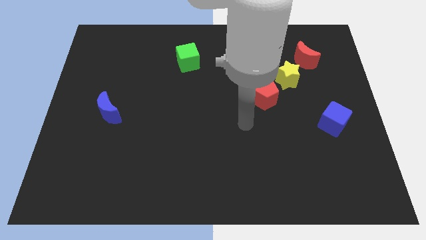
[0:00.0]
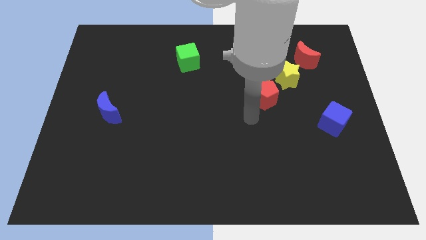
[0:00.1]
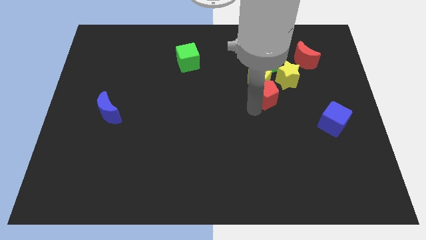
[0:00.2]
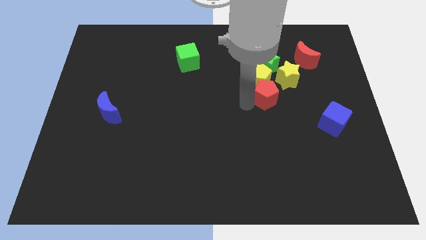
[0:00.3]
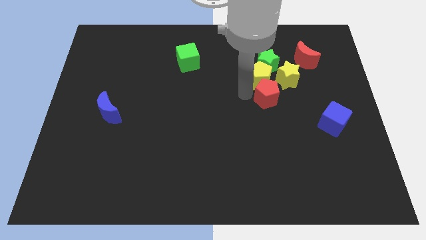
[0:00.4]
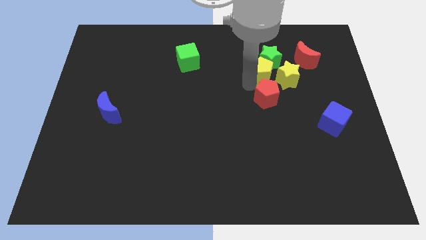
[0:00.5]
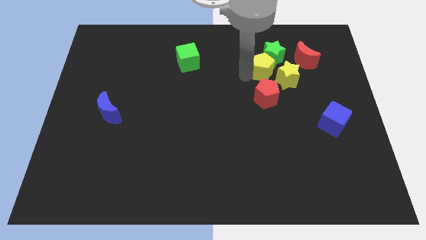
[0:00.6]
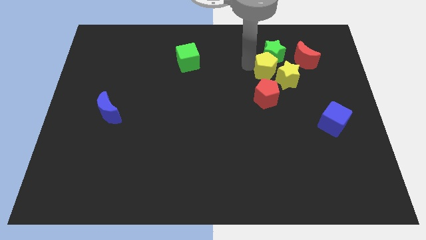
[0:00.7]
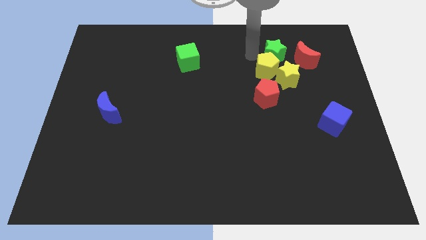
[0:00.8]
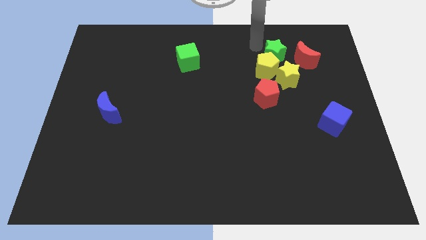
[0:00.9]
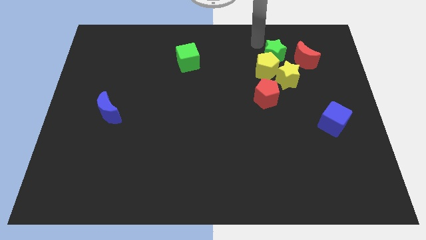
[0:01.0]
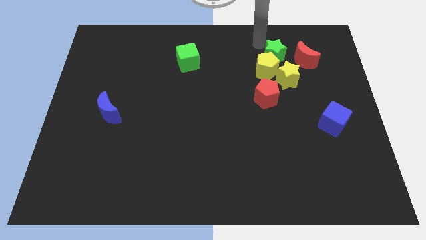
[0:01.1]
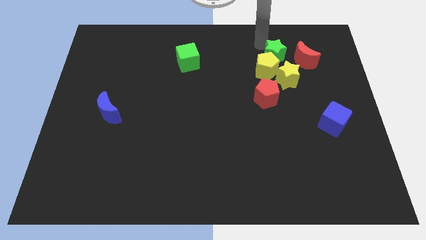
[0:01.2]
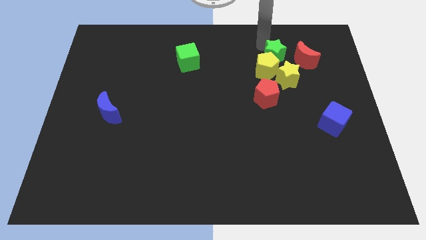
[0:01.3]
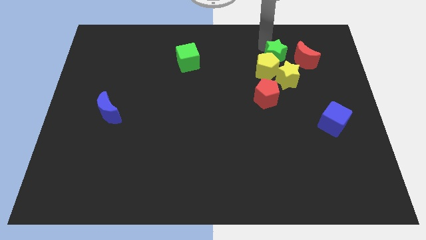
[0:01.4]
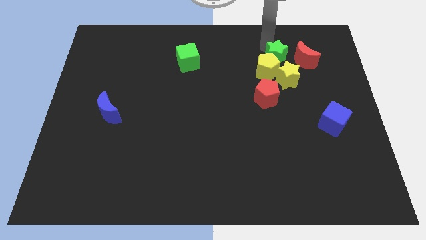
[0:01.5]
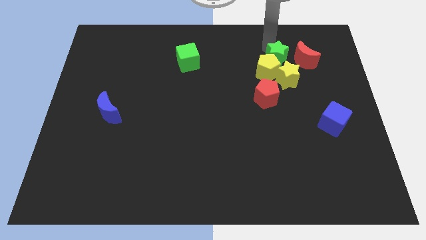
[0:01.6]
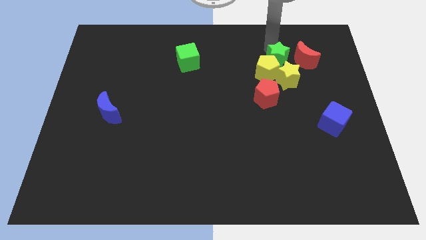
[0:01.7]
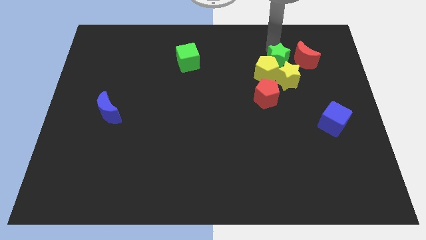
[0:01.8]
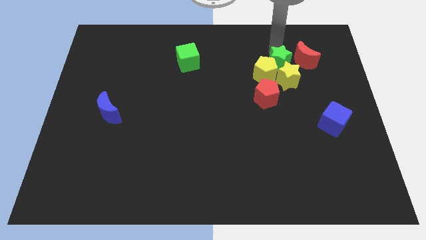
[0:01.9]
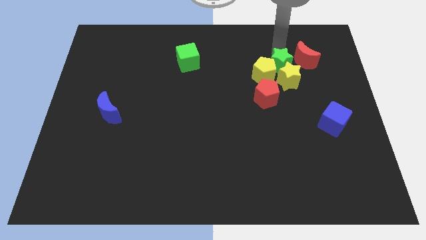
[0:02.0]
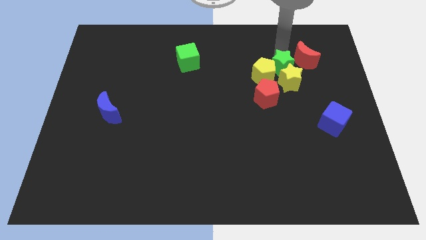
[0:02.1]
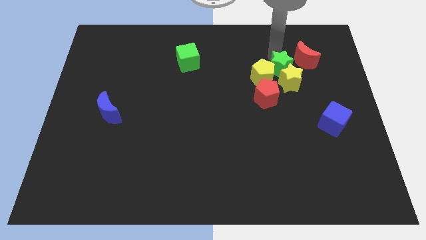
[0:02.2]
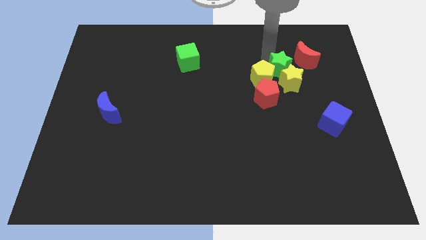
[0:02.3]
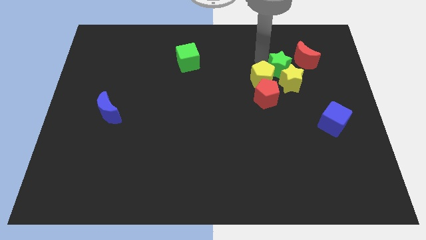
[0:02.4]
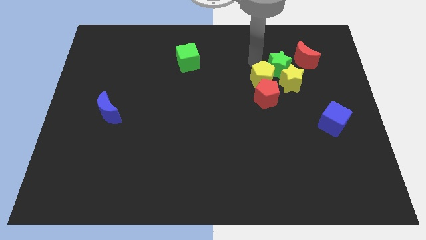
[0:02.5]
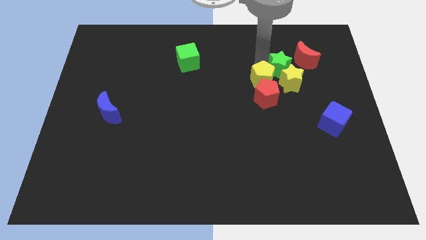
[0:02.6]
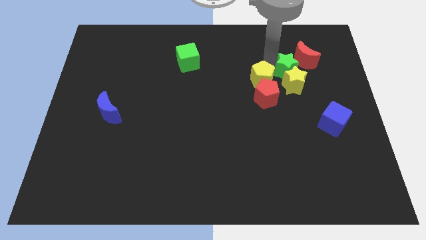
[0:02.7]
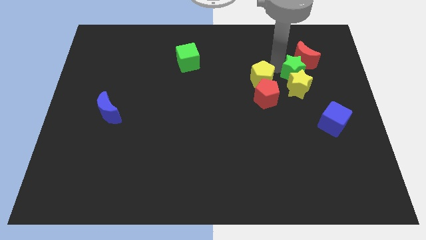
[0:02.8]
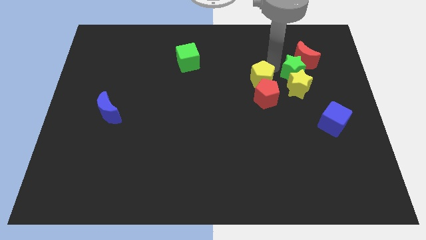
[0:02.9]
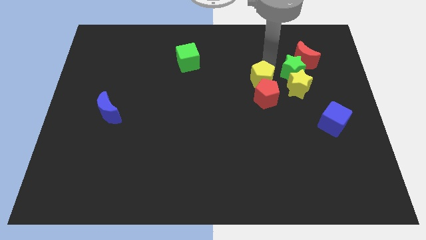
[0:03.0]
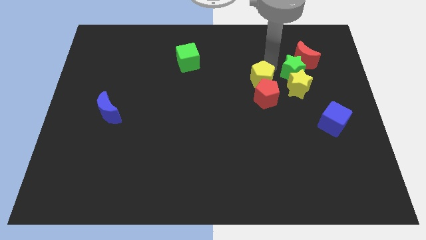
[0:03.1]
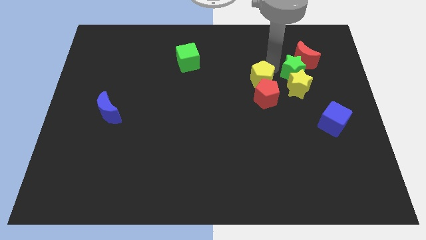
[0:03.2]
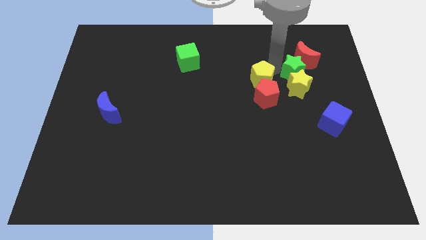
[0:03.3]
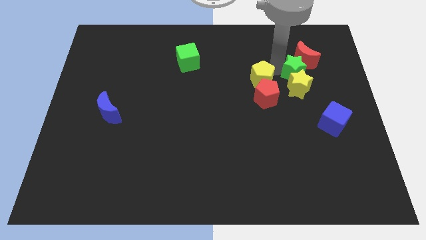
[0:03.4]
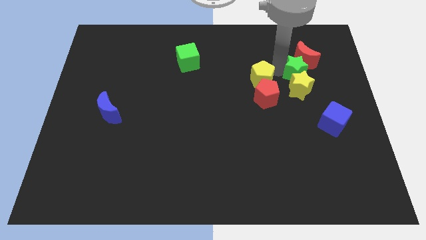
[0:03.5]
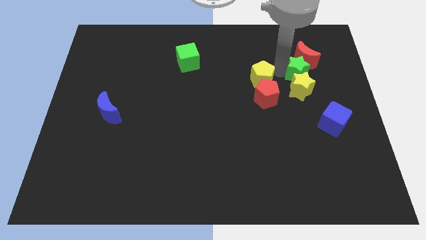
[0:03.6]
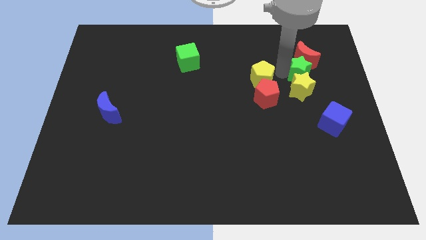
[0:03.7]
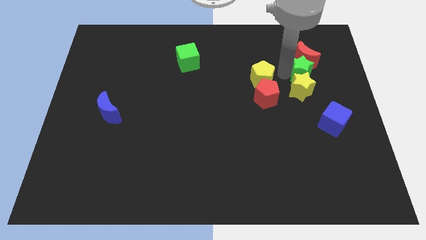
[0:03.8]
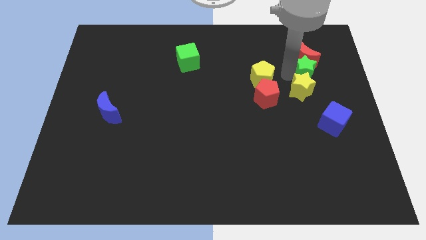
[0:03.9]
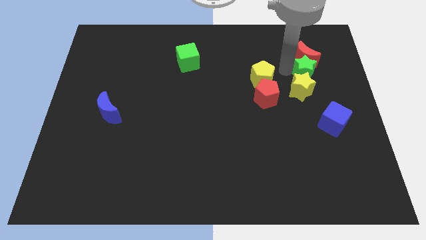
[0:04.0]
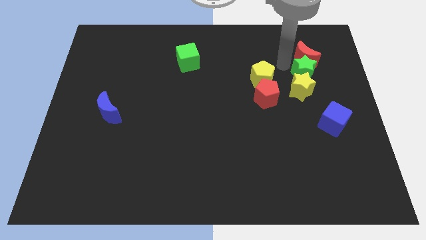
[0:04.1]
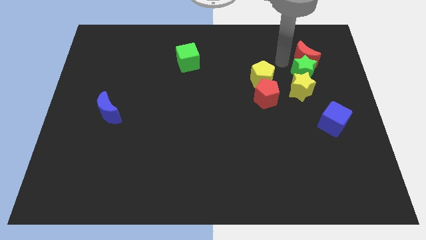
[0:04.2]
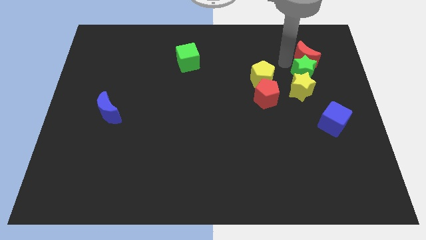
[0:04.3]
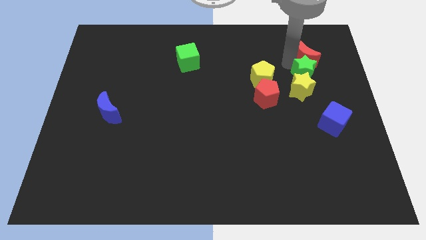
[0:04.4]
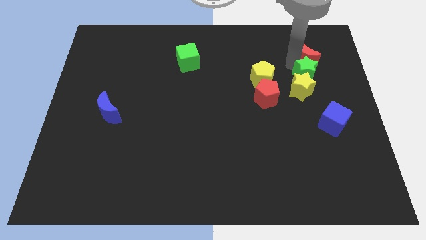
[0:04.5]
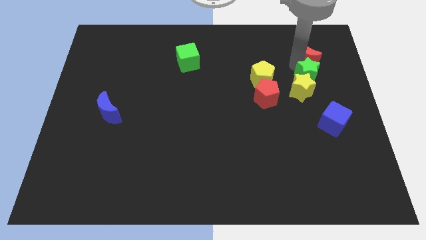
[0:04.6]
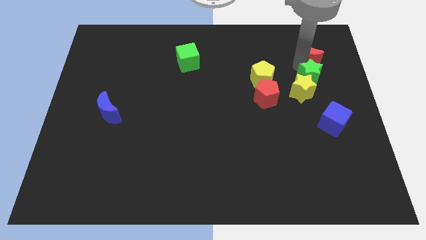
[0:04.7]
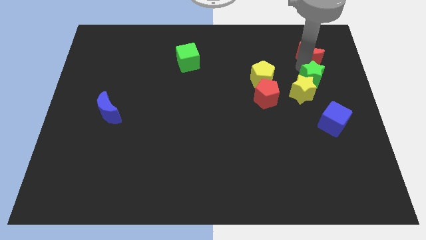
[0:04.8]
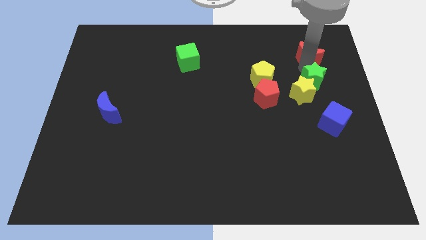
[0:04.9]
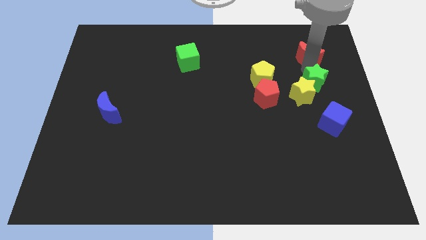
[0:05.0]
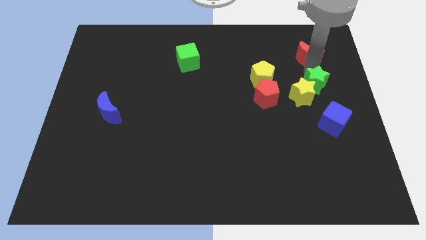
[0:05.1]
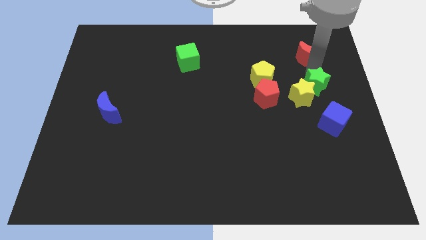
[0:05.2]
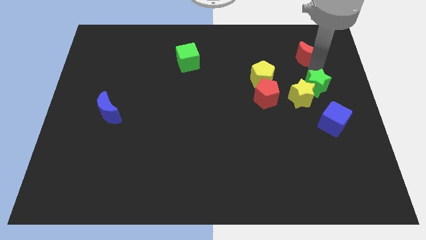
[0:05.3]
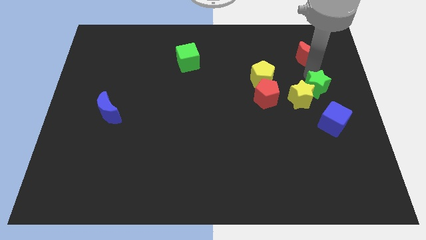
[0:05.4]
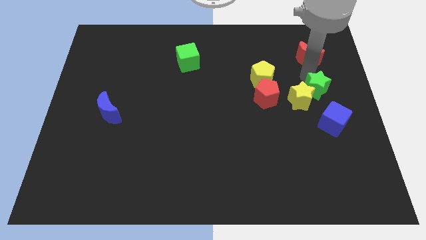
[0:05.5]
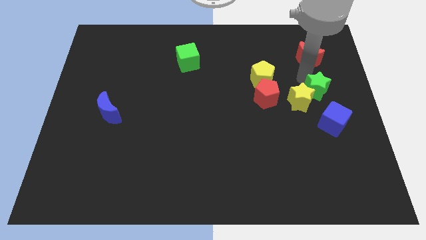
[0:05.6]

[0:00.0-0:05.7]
put the green star to the right side of the board

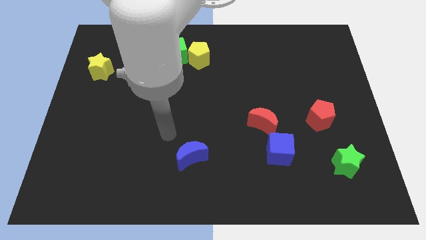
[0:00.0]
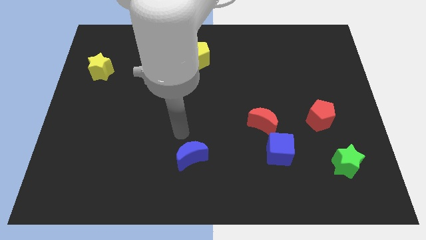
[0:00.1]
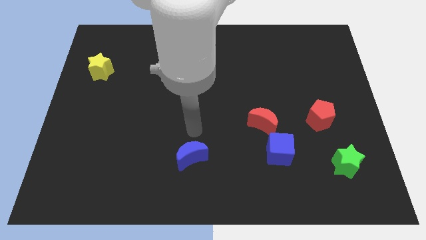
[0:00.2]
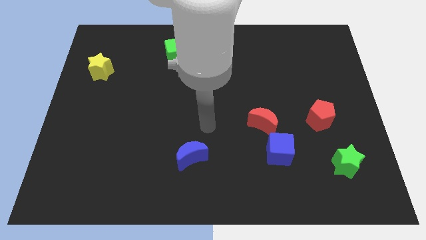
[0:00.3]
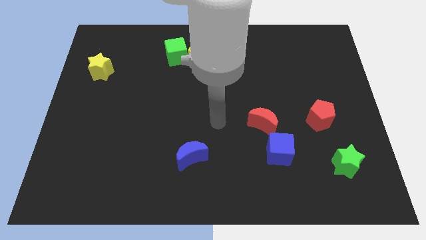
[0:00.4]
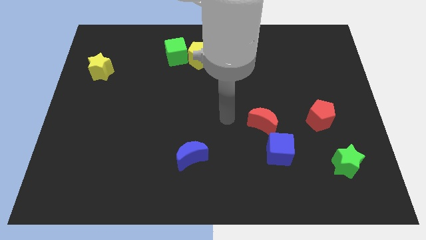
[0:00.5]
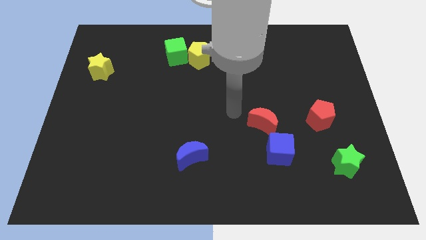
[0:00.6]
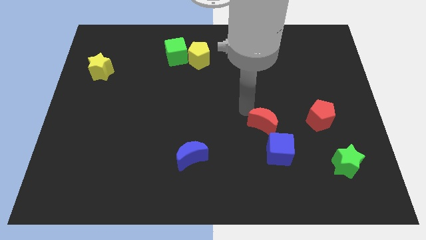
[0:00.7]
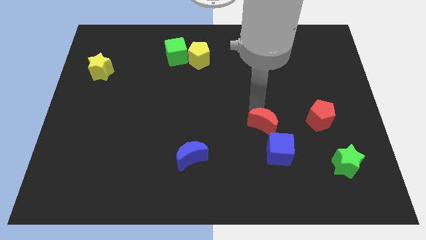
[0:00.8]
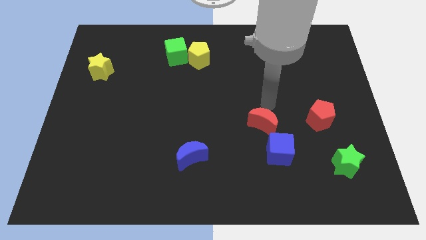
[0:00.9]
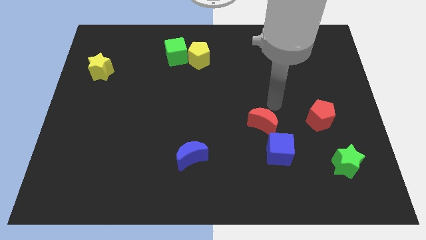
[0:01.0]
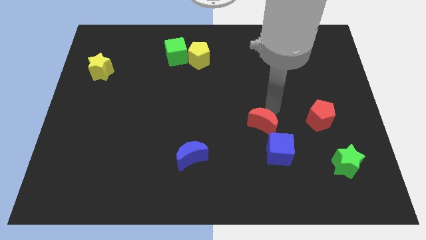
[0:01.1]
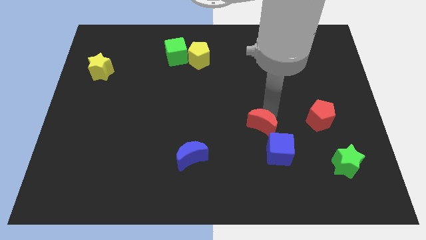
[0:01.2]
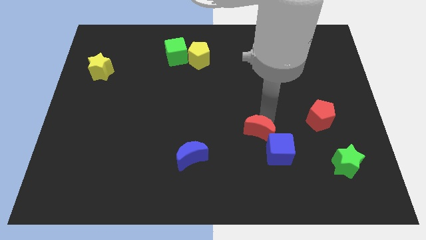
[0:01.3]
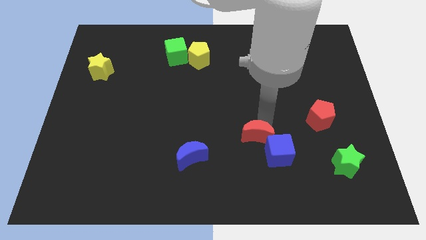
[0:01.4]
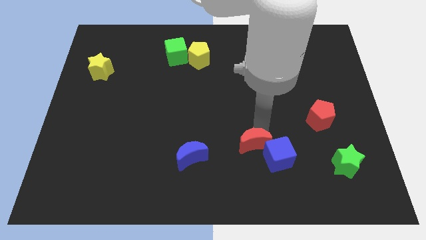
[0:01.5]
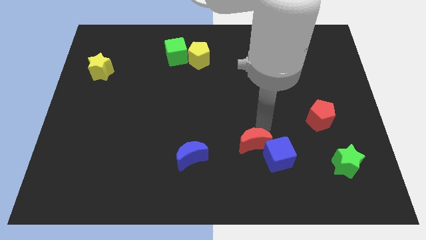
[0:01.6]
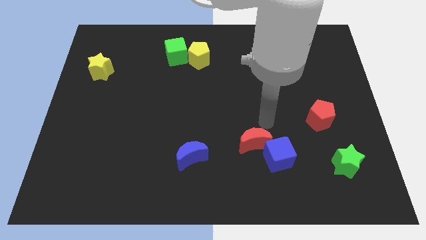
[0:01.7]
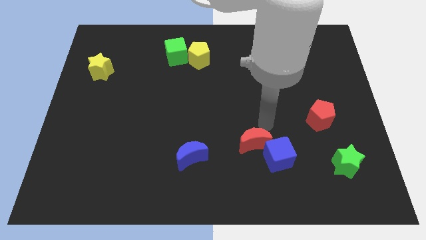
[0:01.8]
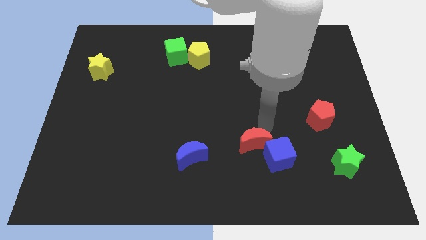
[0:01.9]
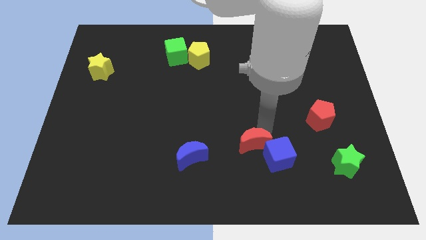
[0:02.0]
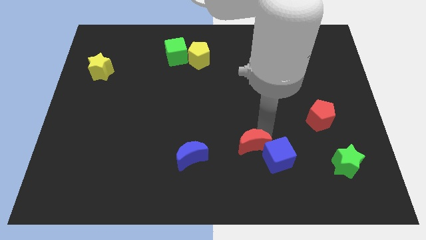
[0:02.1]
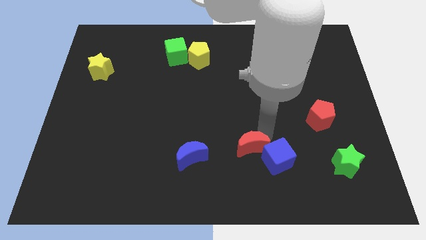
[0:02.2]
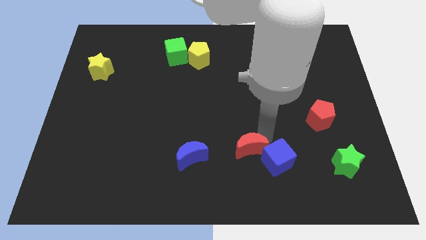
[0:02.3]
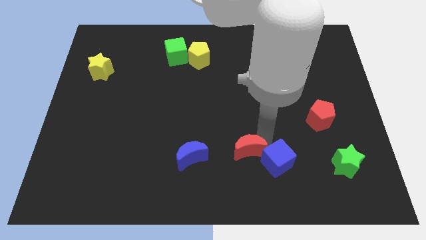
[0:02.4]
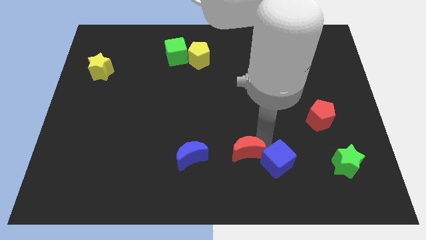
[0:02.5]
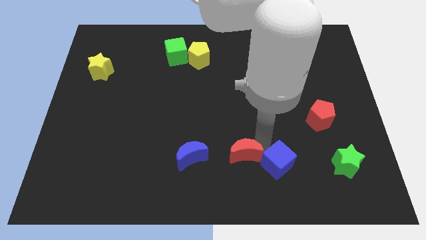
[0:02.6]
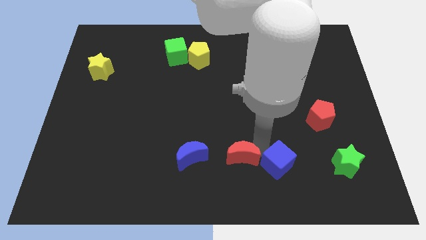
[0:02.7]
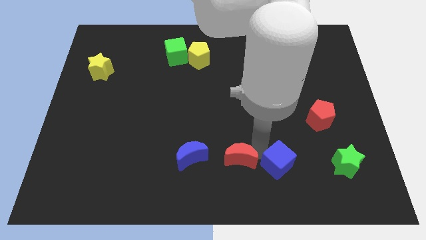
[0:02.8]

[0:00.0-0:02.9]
slide the red moon to the bottom
